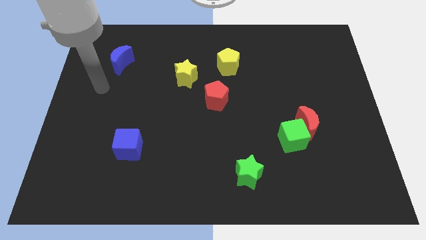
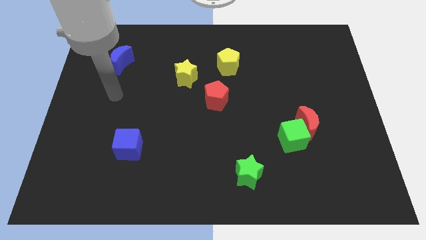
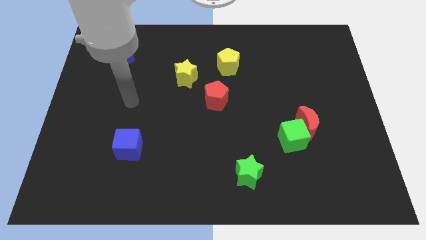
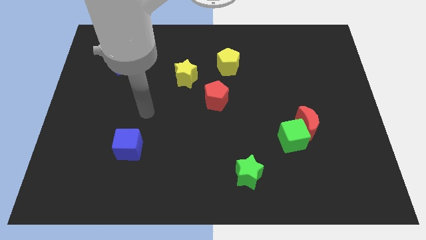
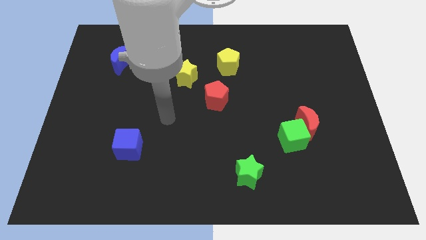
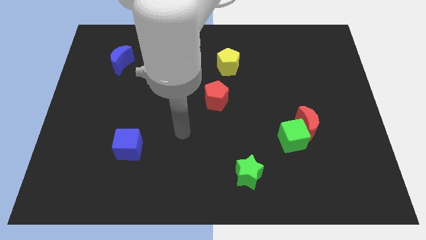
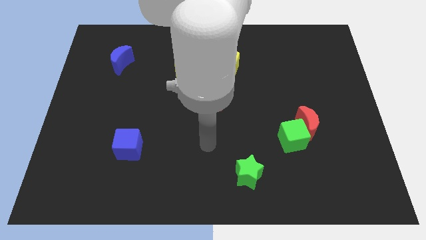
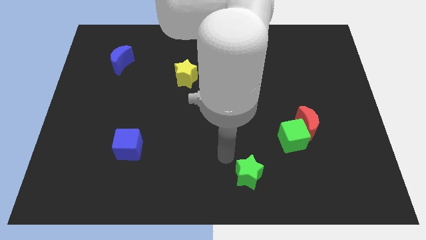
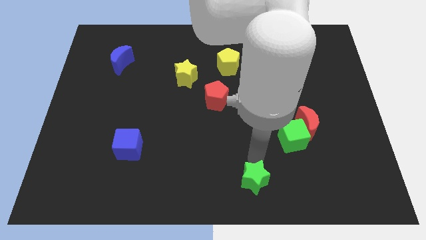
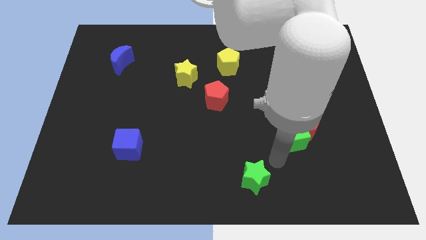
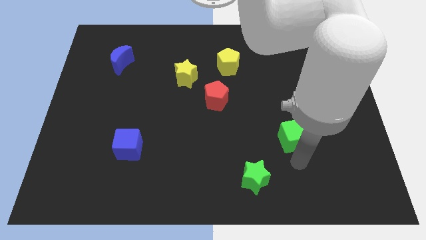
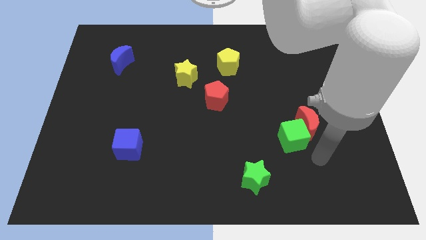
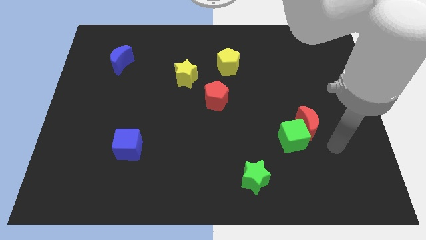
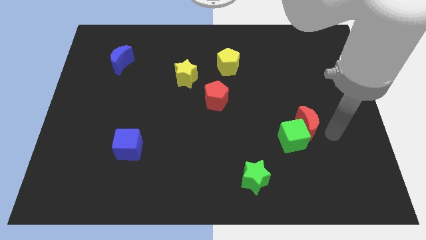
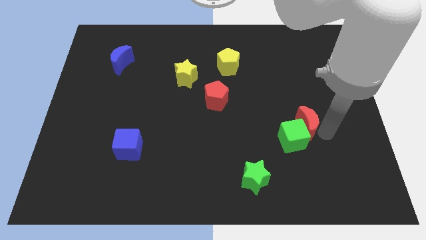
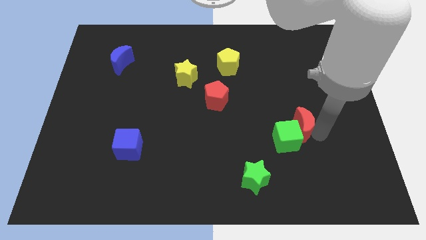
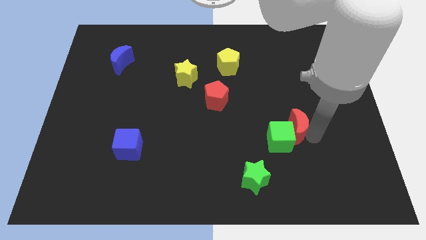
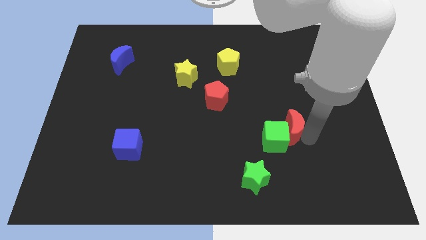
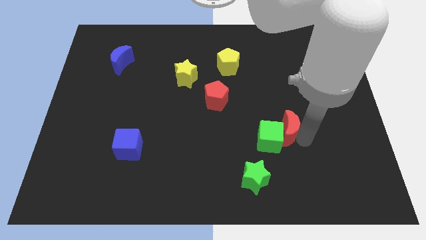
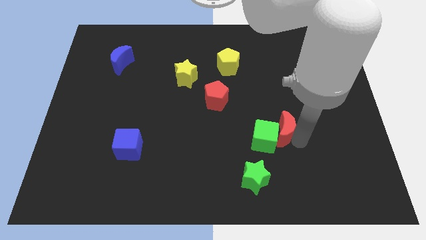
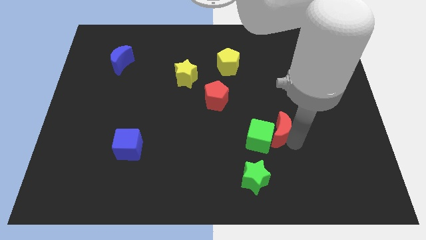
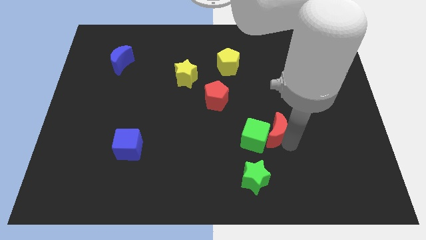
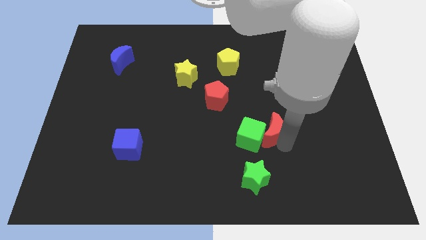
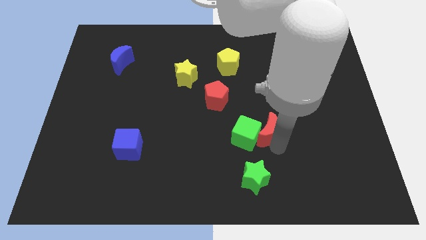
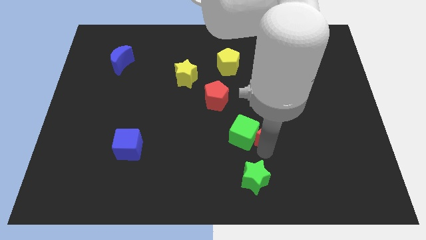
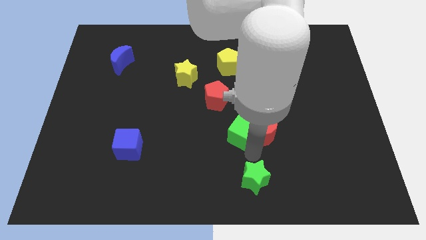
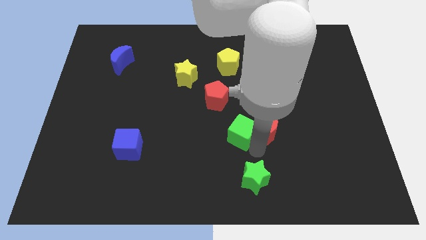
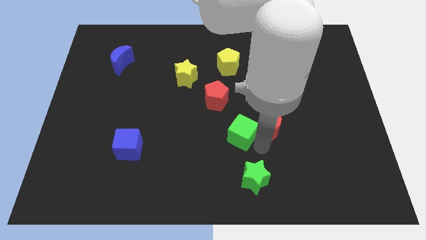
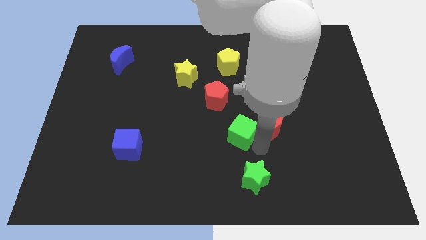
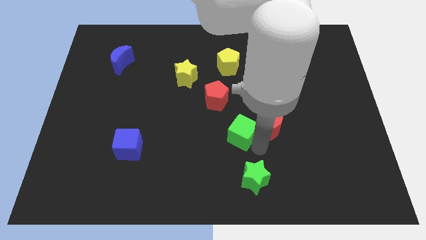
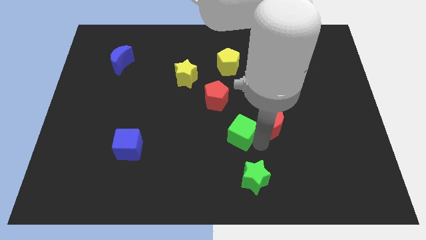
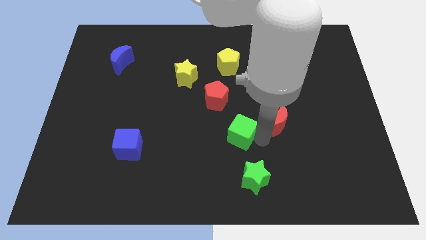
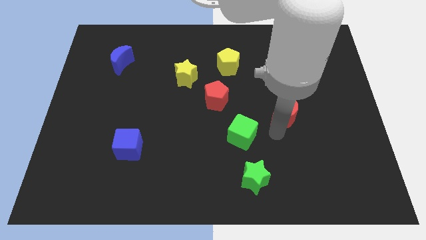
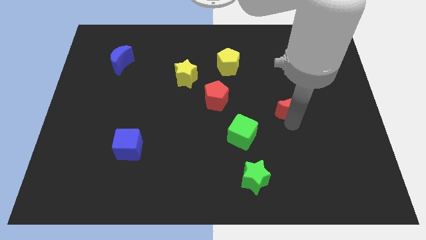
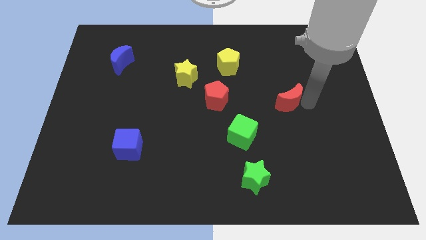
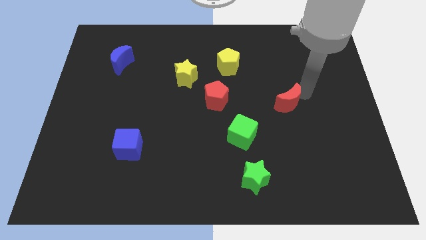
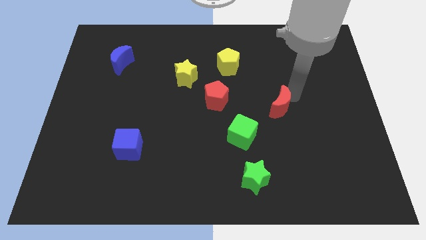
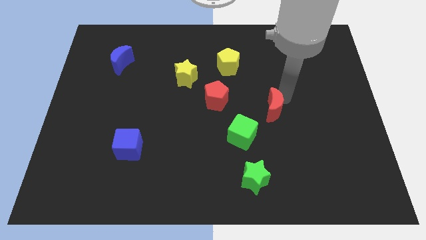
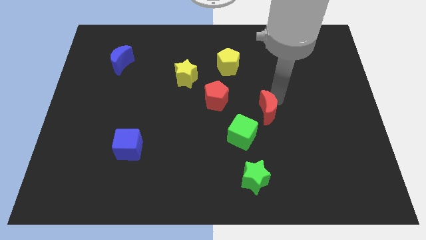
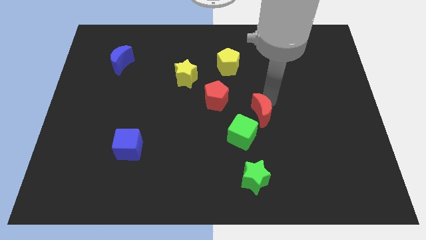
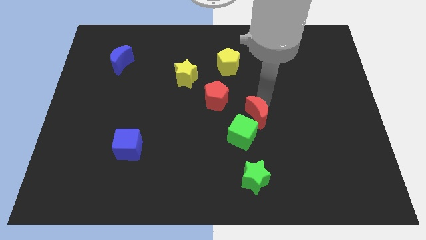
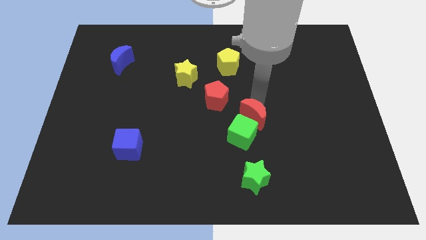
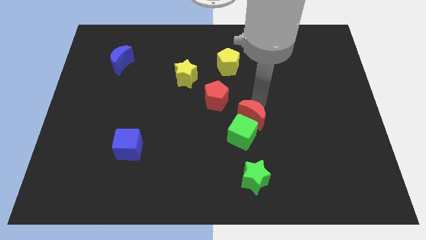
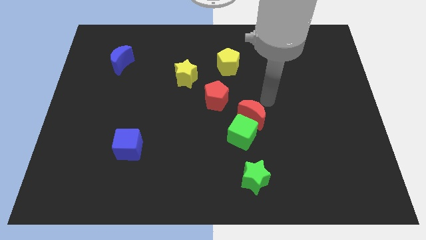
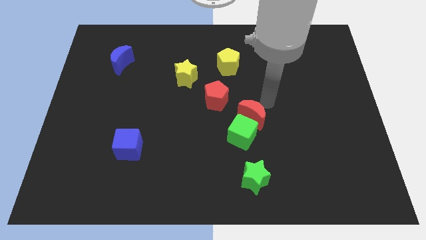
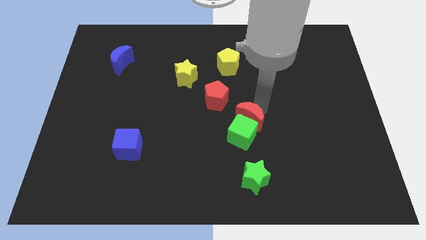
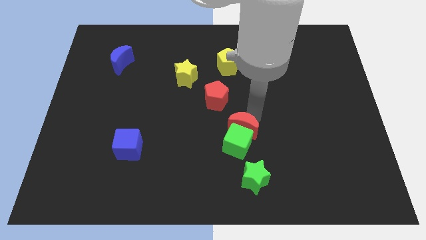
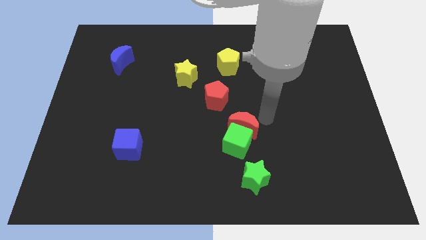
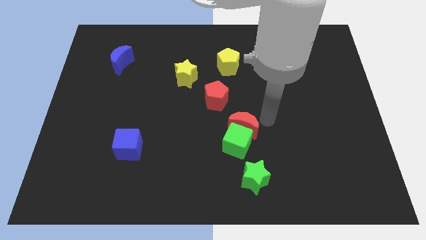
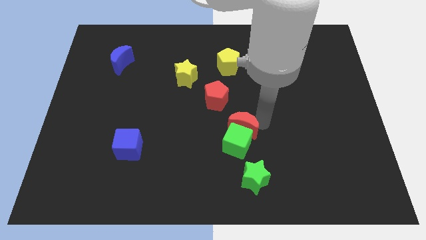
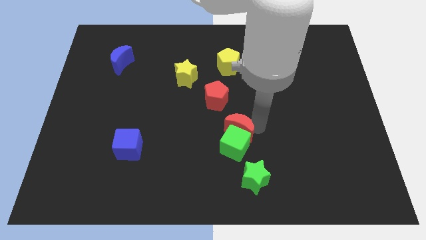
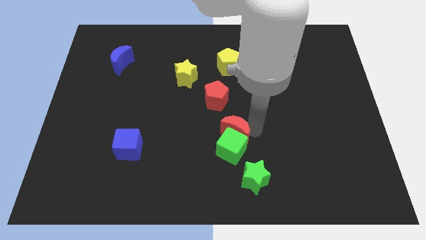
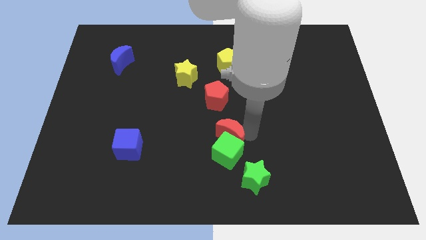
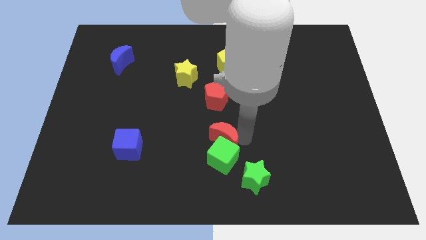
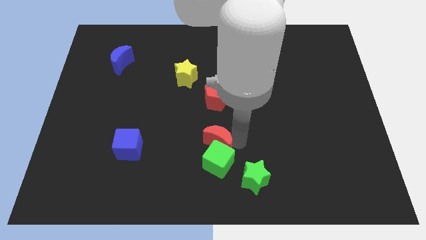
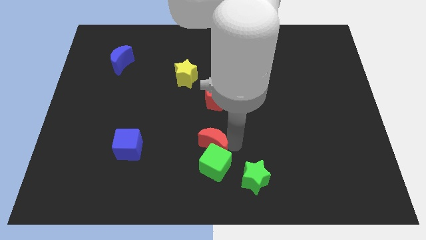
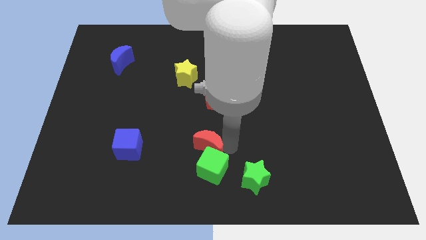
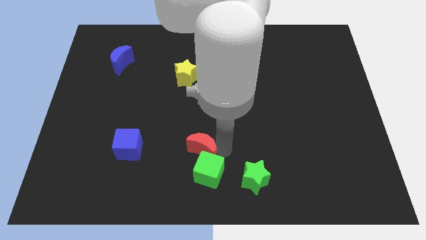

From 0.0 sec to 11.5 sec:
push the red moon to the right side of the blue cube

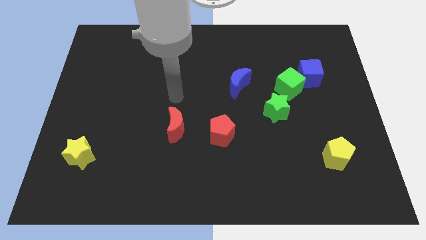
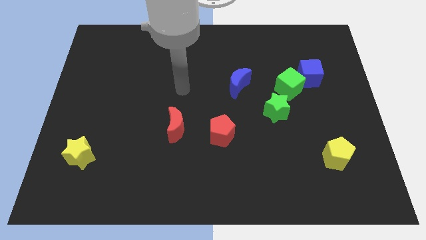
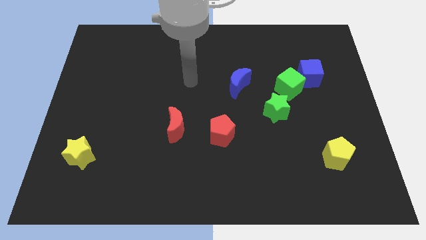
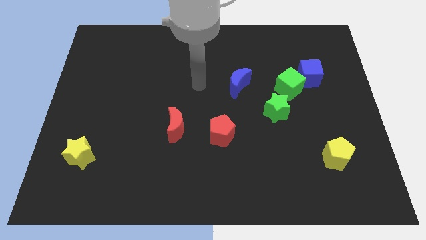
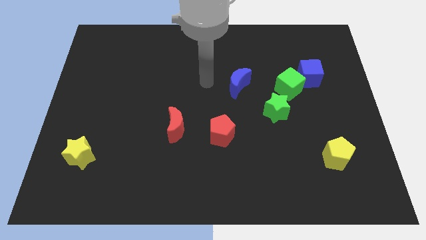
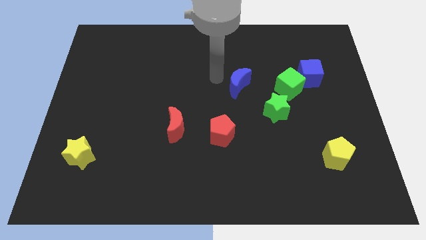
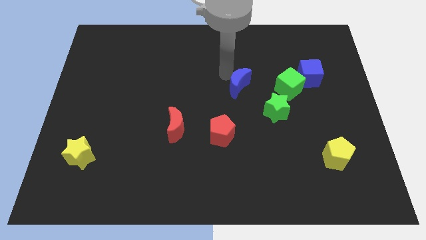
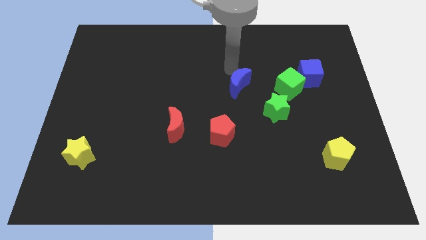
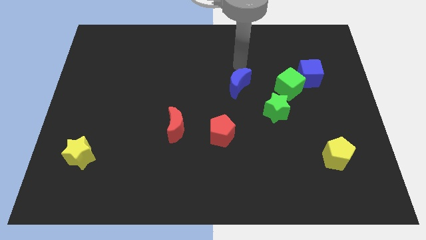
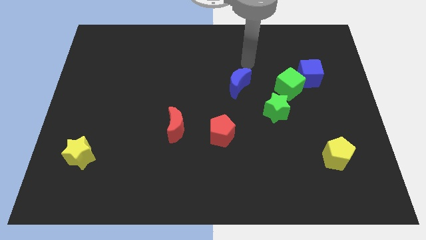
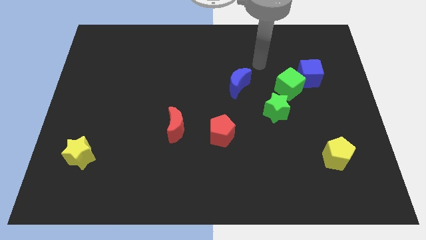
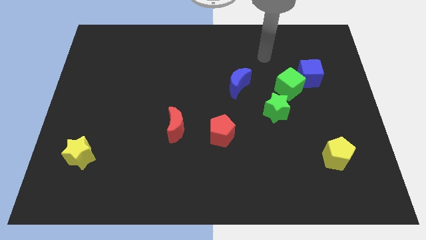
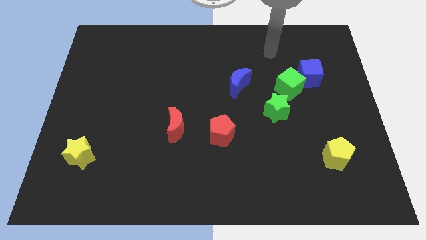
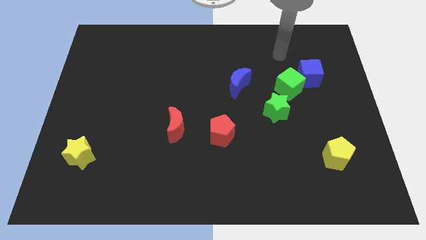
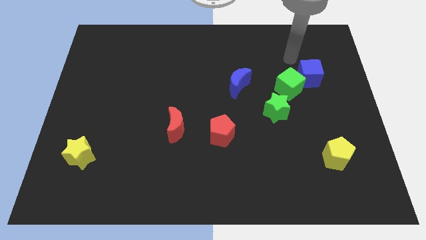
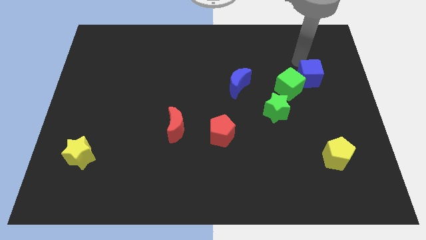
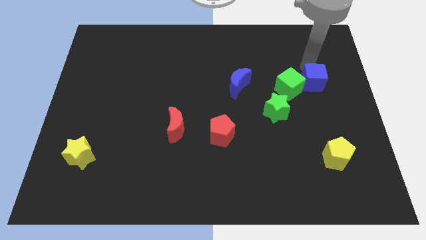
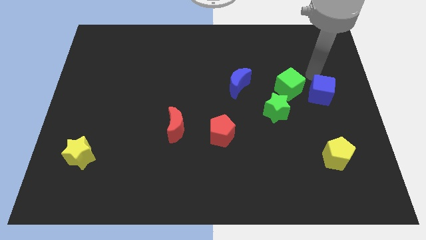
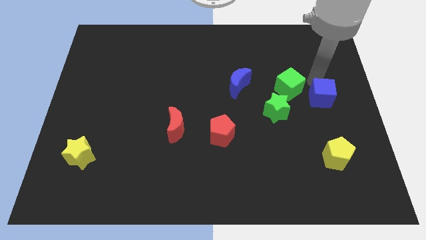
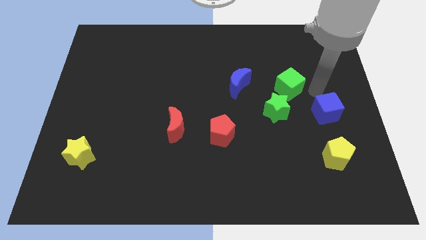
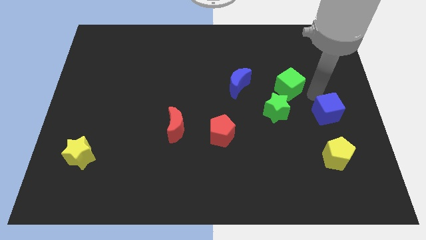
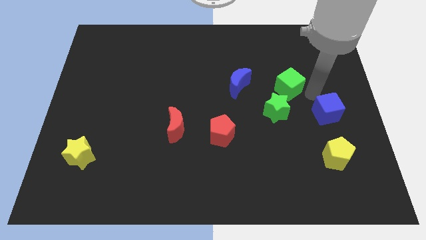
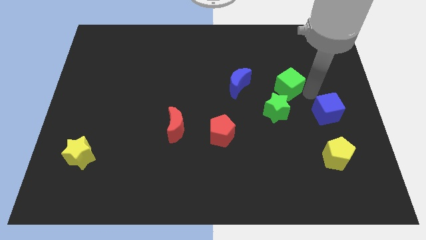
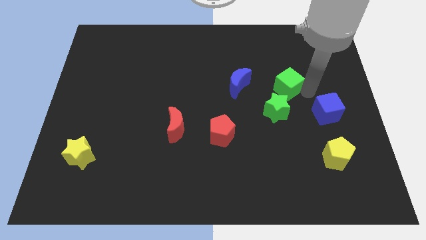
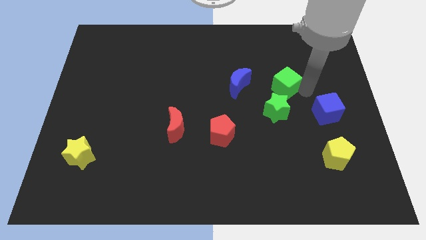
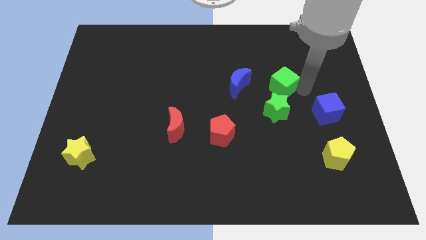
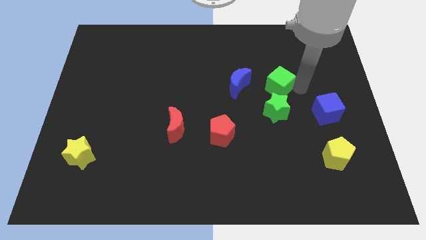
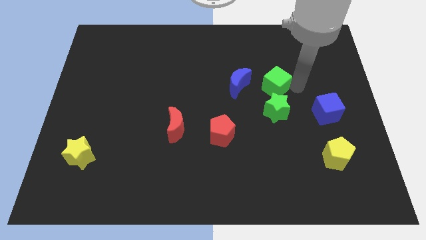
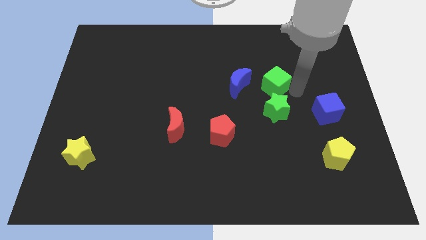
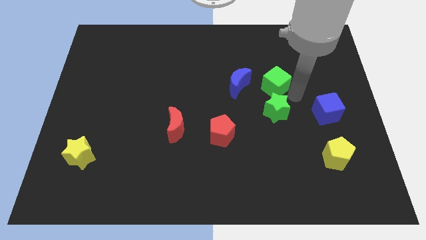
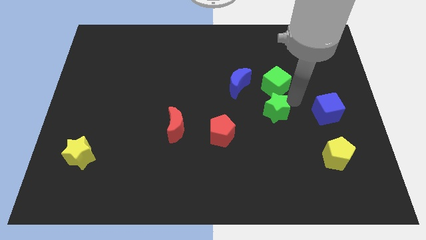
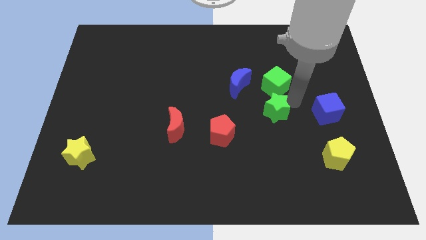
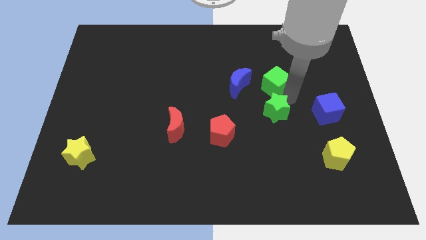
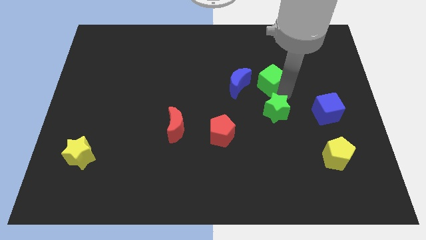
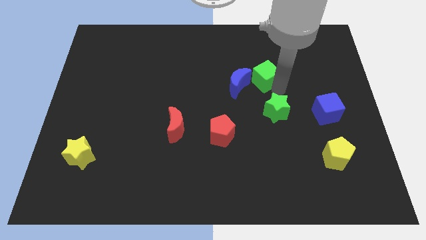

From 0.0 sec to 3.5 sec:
put the green cube diagonally up and to the right of the blue moon
